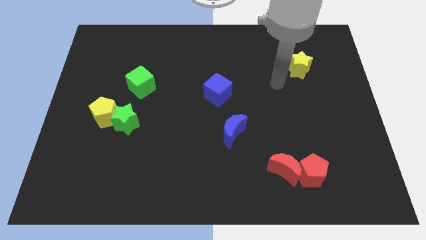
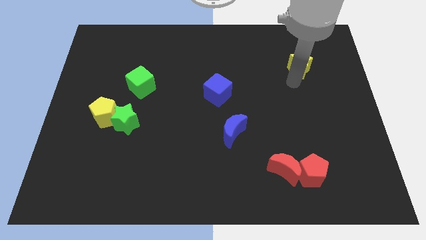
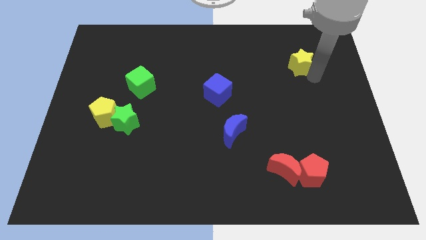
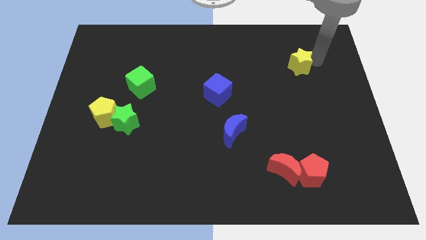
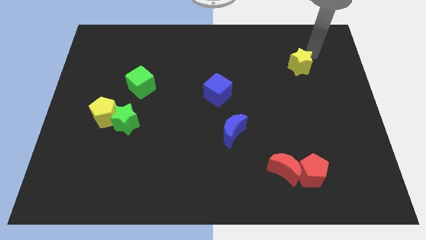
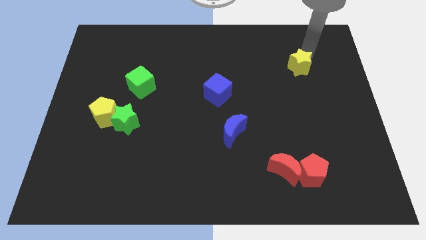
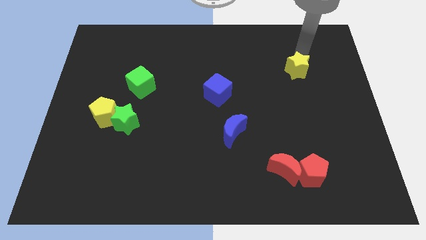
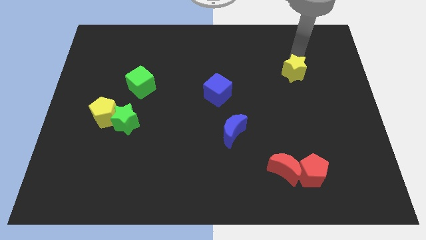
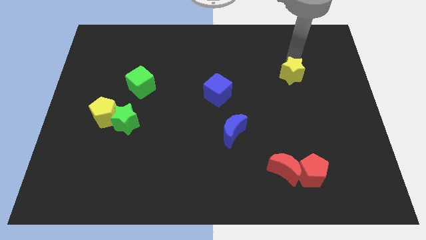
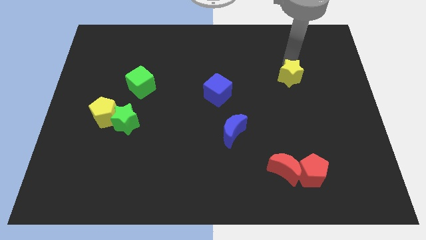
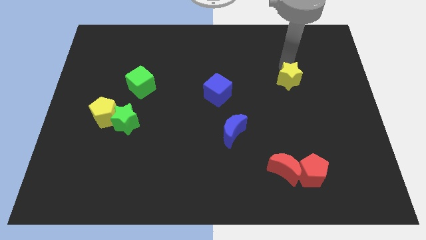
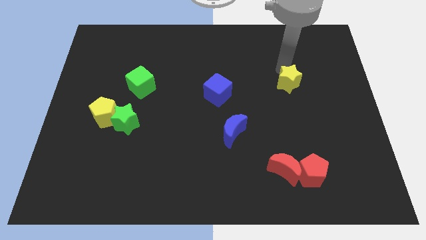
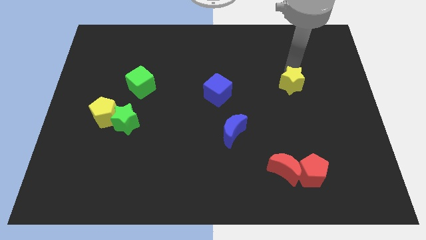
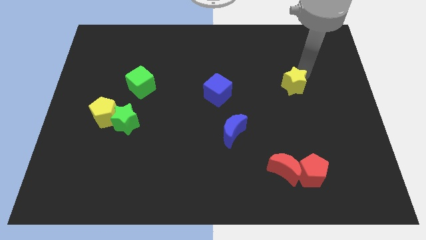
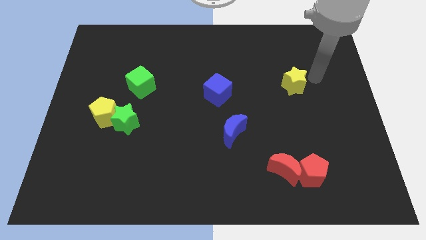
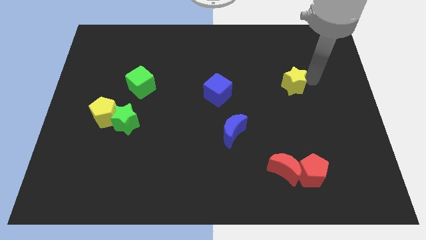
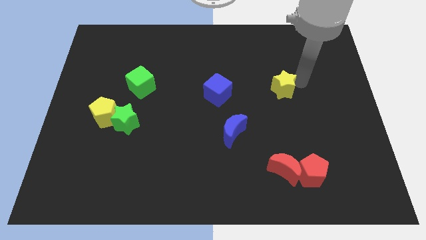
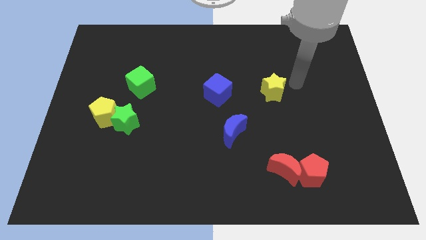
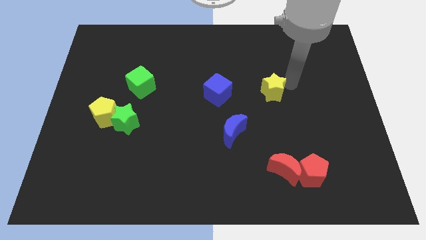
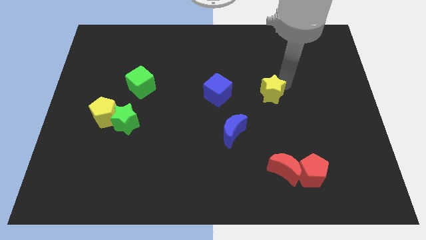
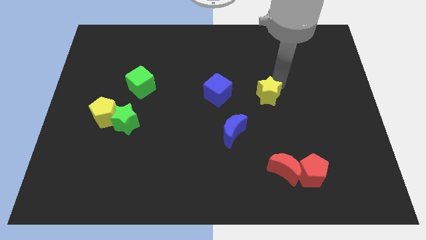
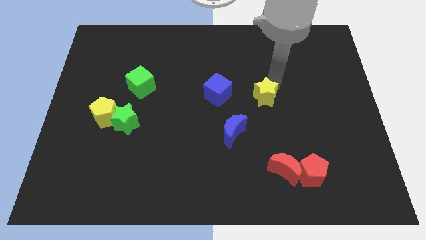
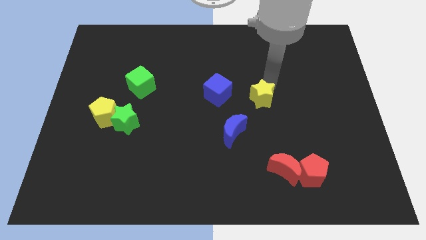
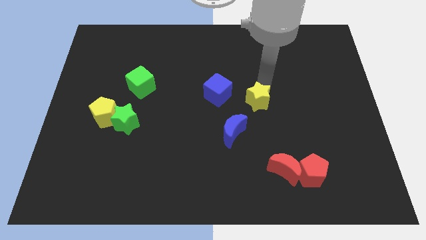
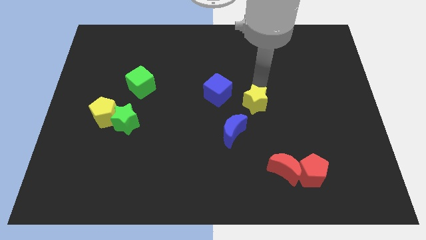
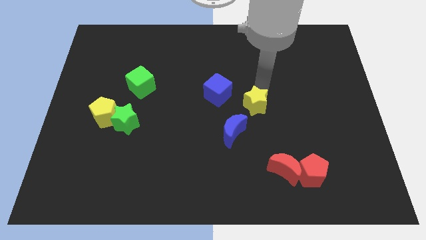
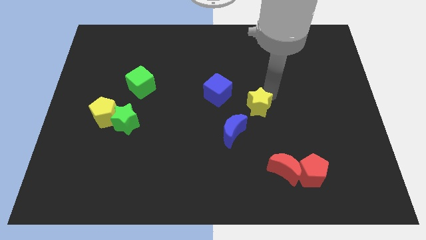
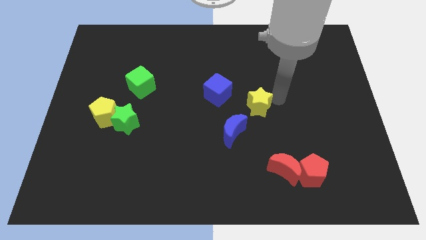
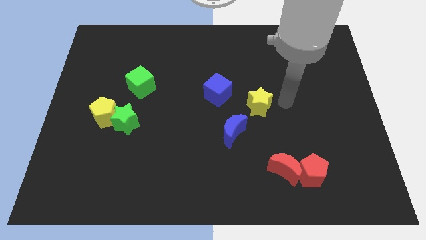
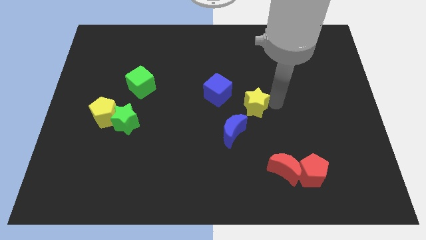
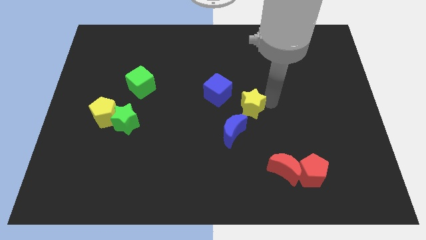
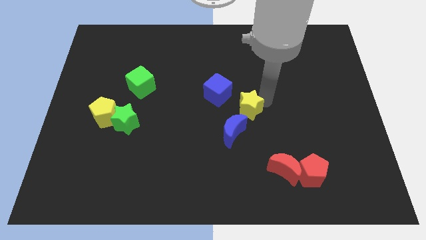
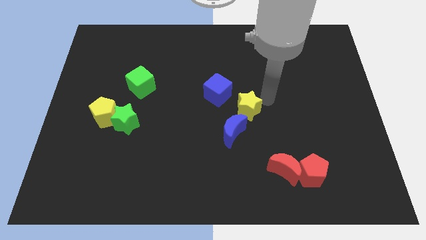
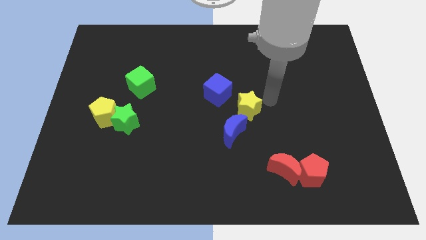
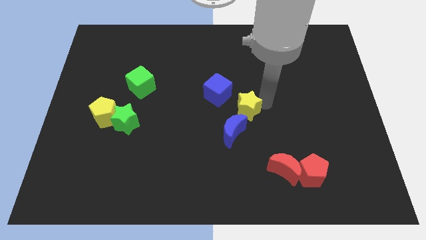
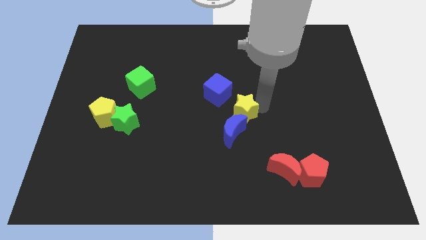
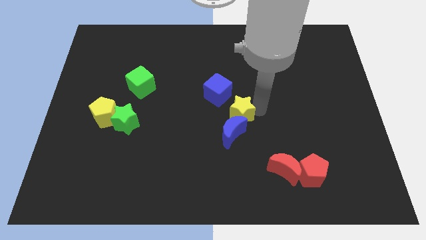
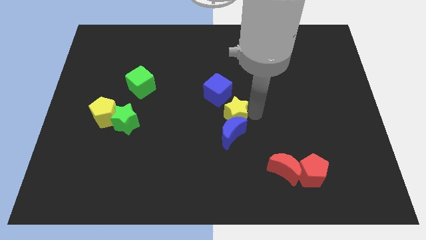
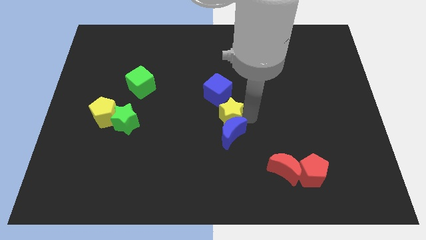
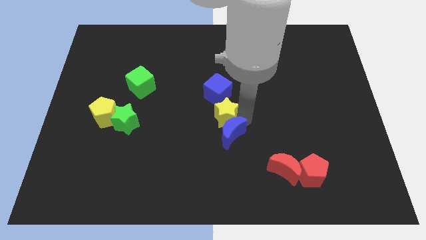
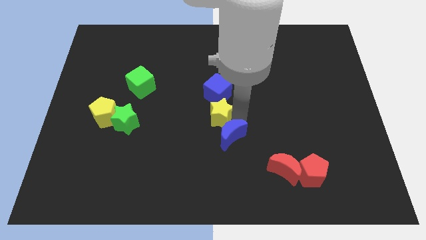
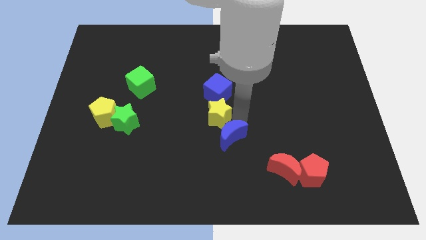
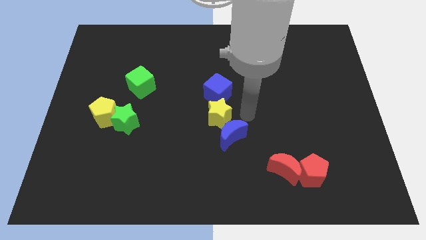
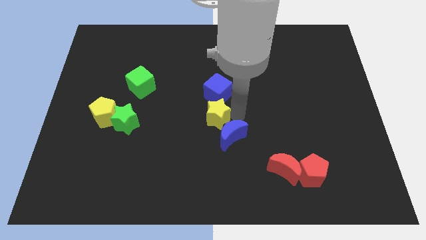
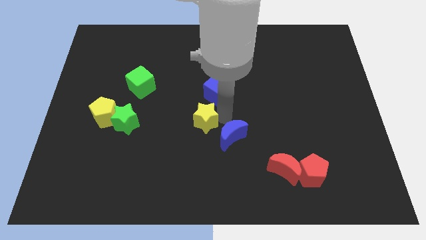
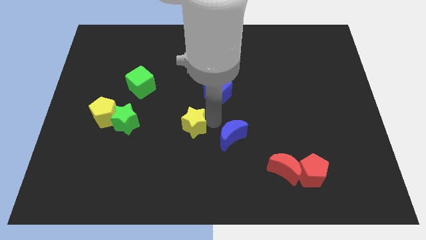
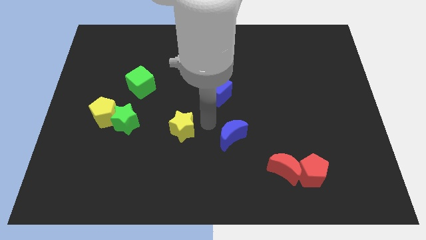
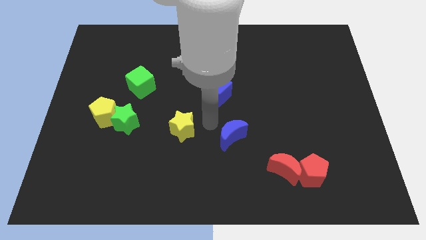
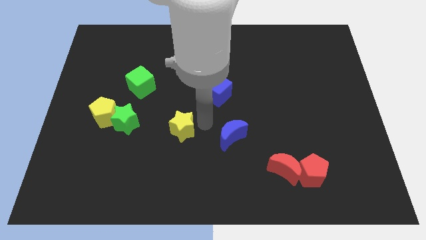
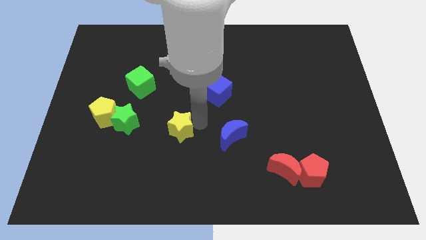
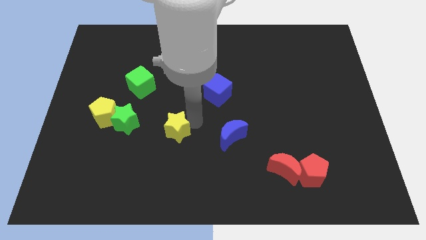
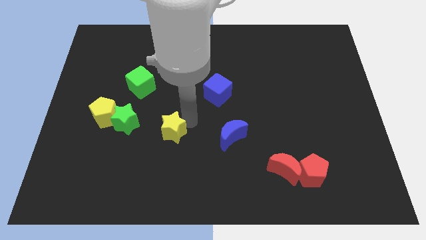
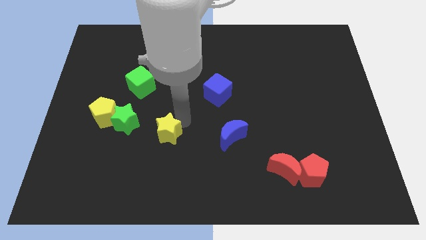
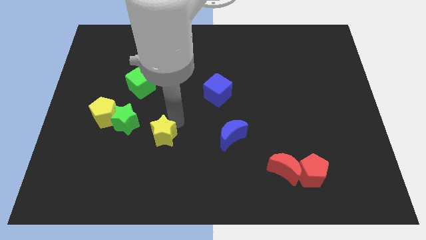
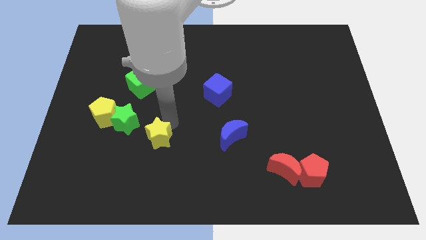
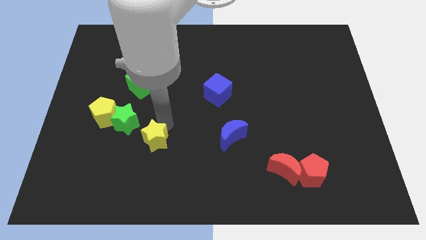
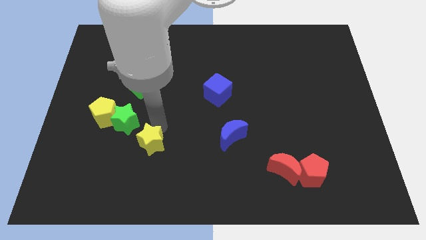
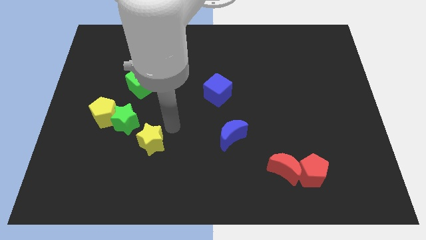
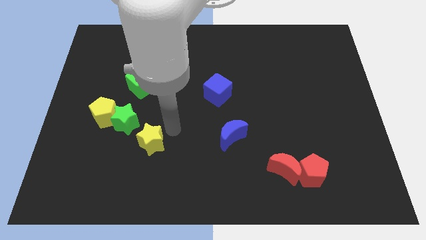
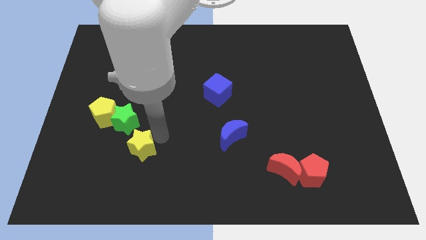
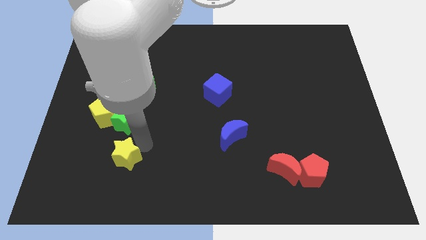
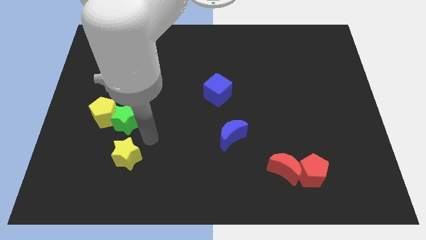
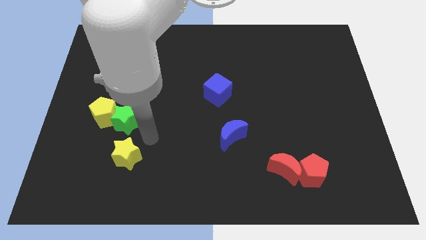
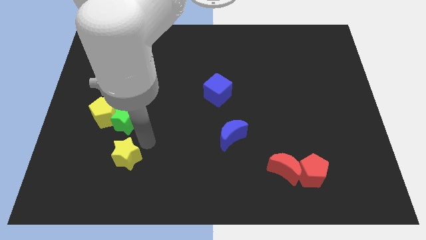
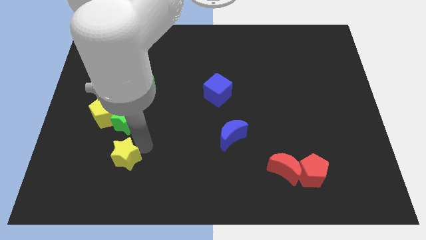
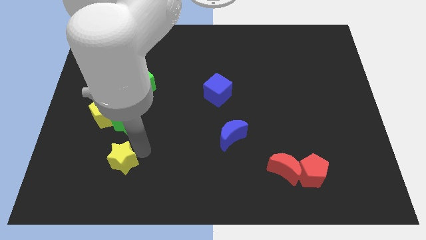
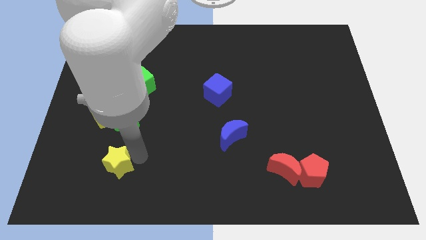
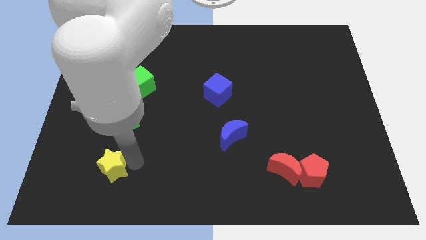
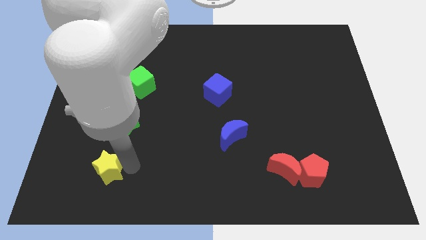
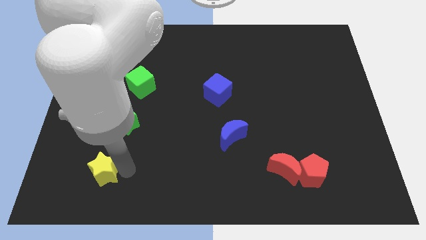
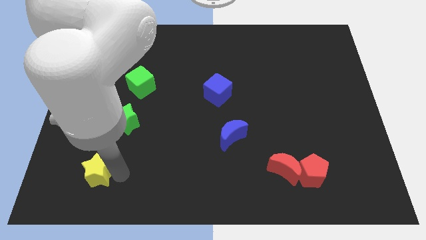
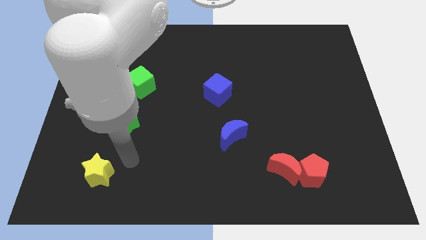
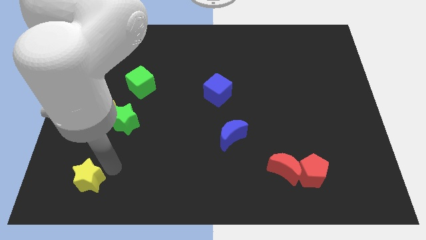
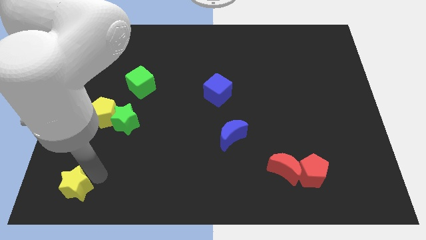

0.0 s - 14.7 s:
move the yellow star to the lower left corner
